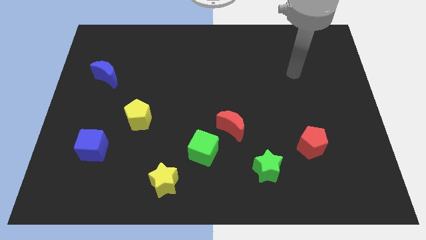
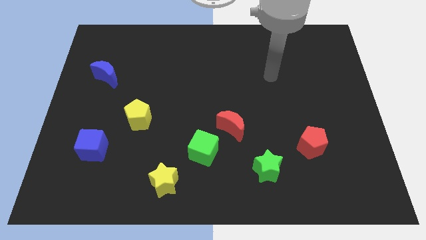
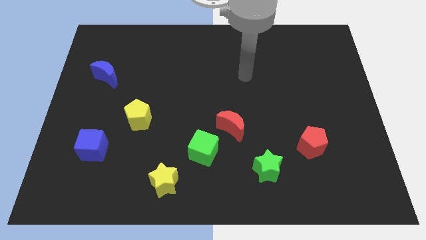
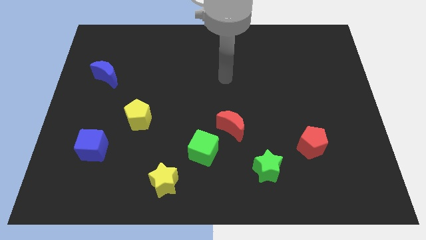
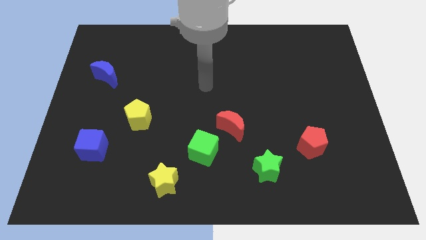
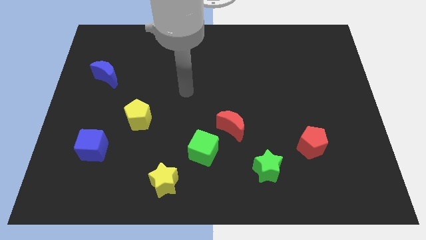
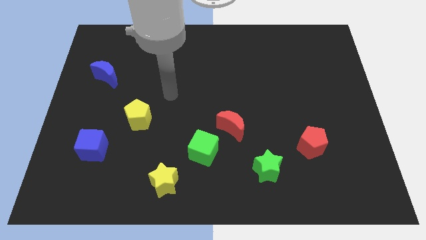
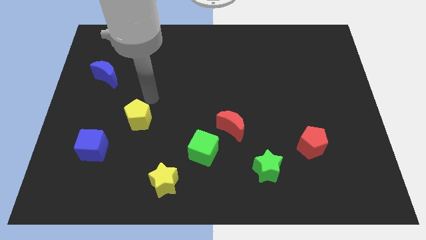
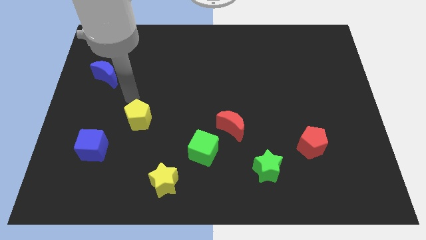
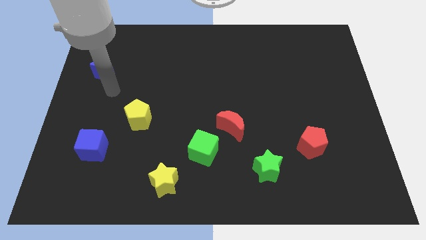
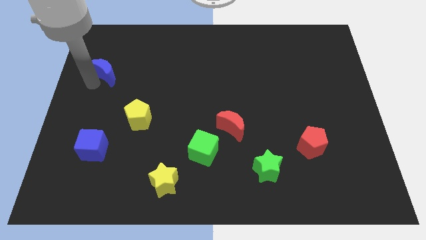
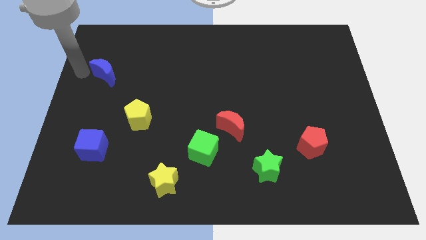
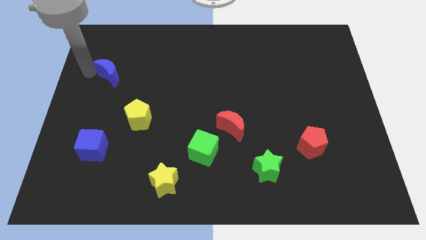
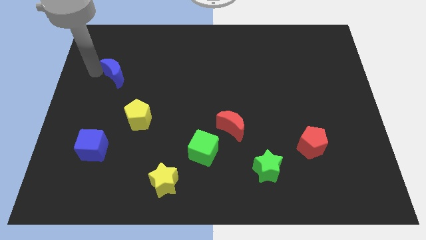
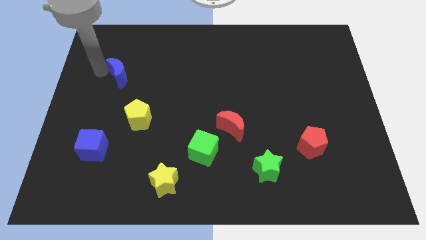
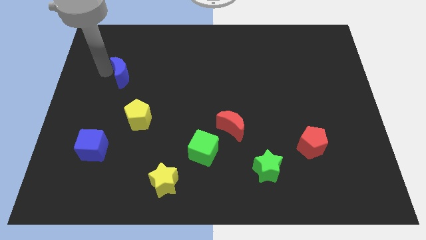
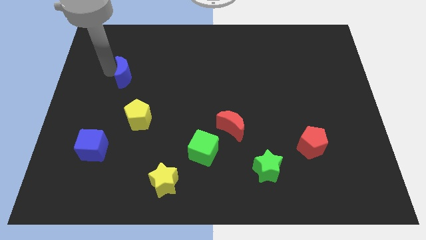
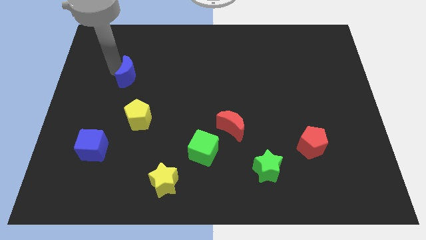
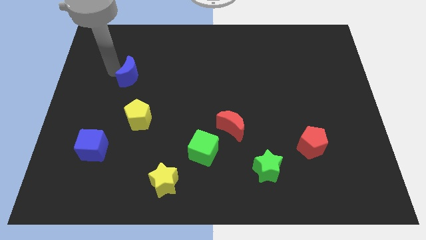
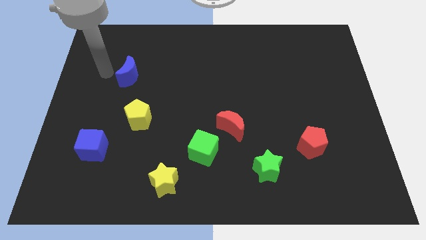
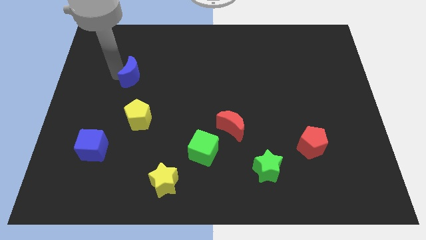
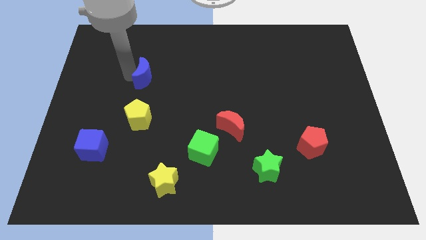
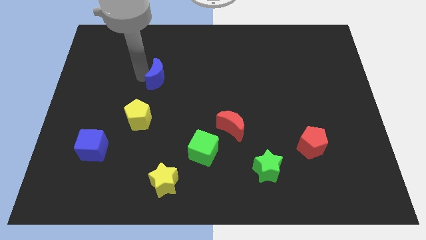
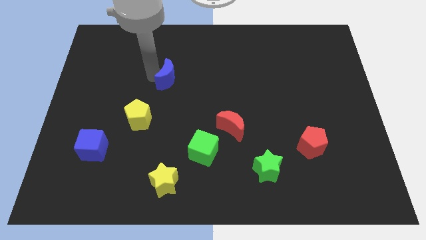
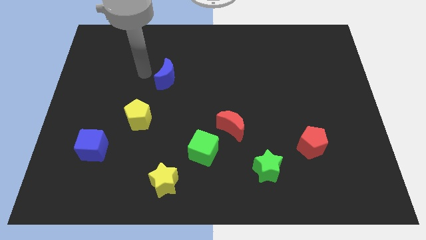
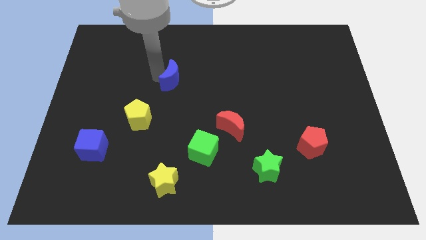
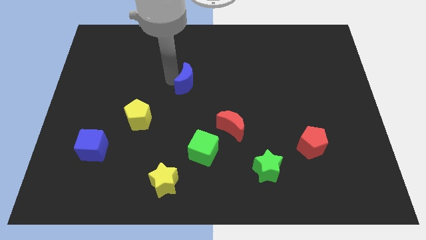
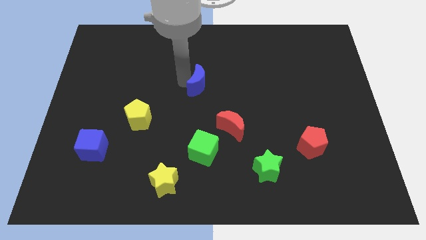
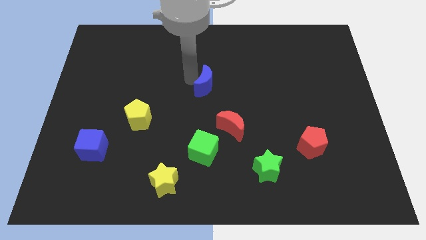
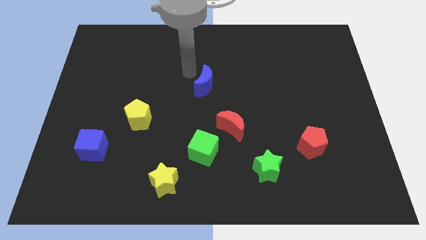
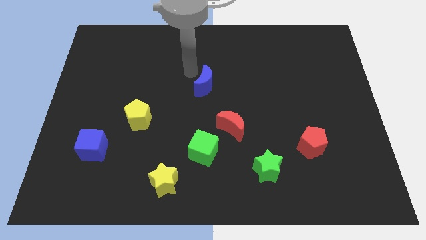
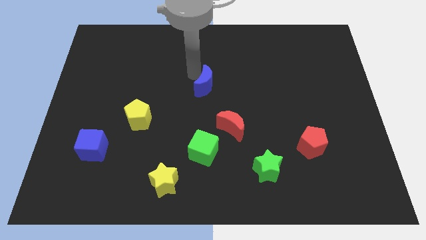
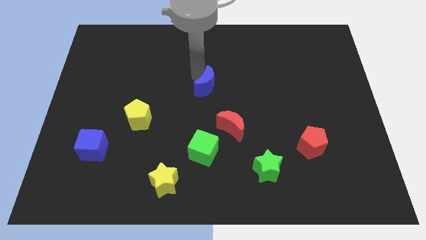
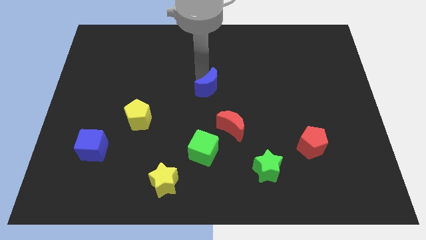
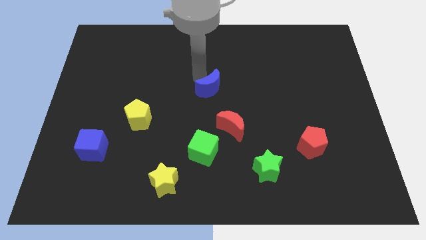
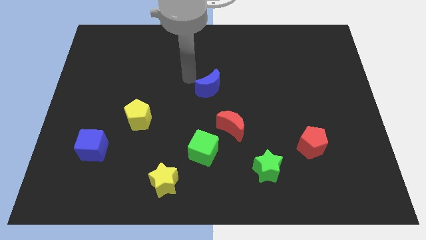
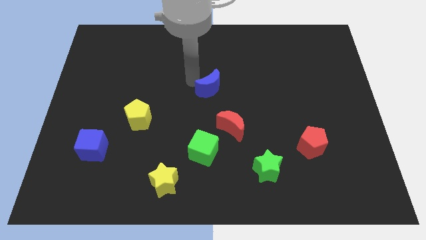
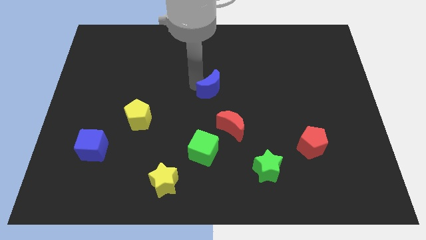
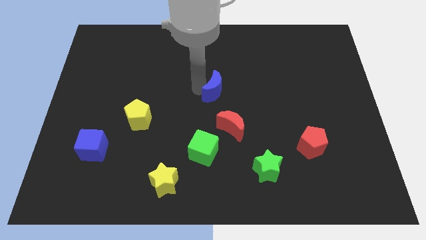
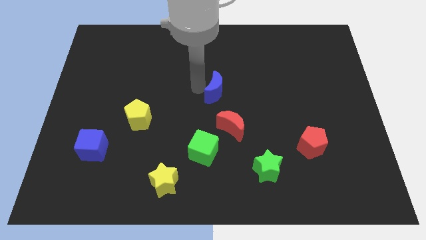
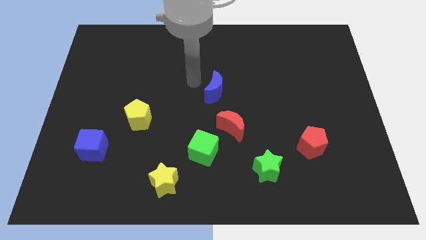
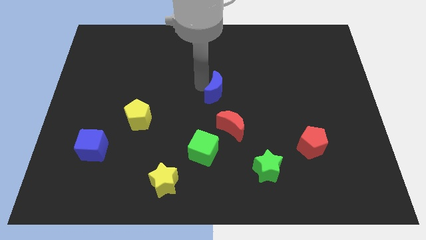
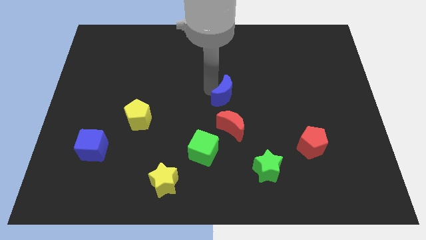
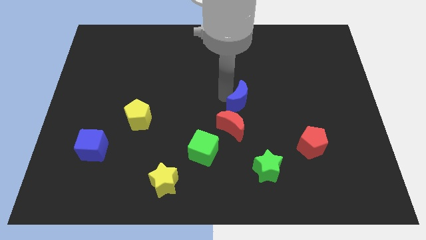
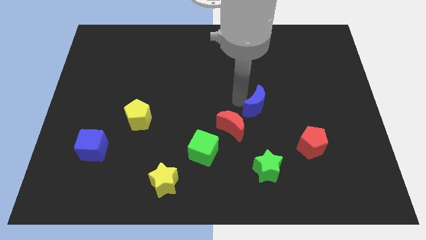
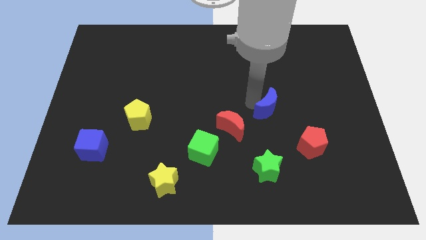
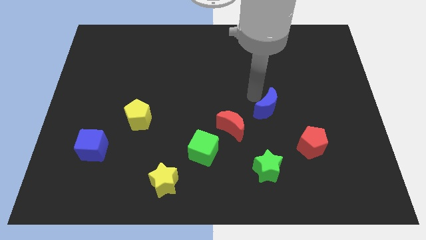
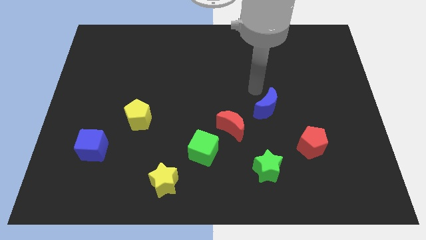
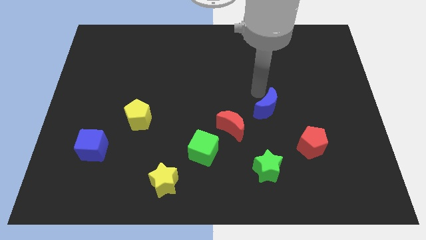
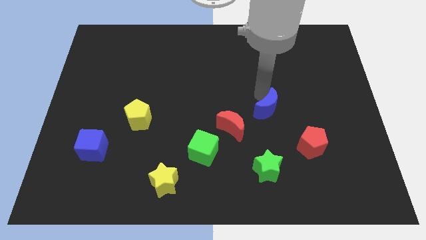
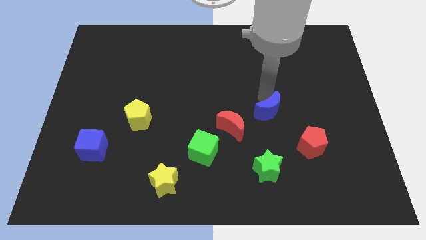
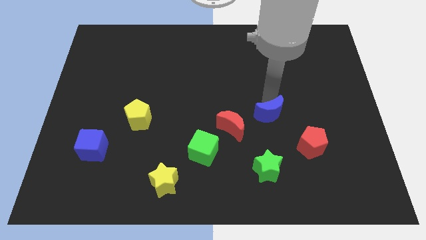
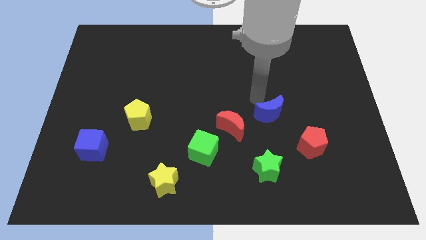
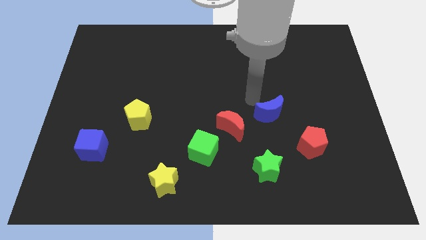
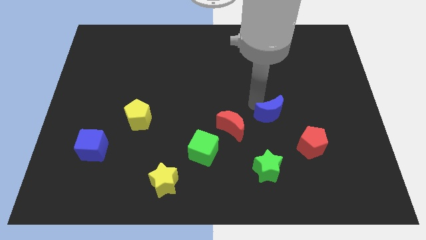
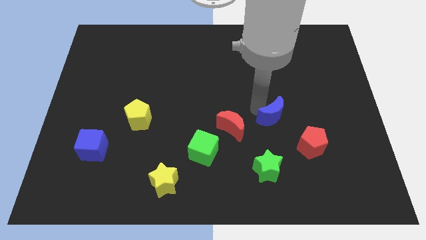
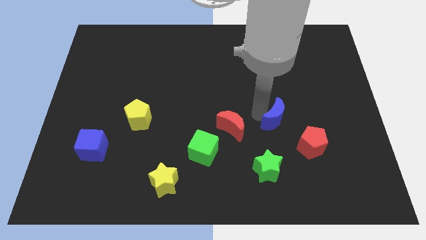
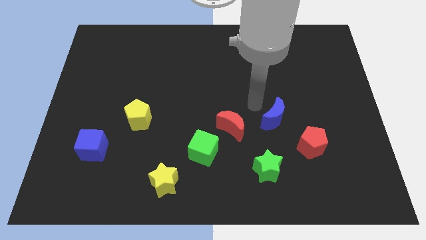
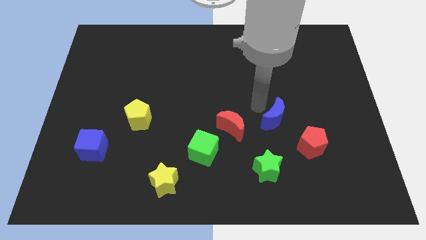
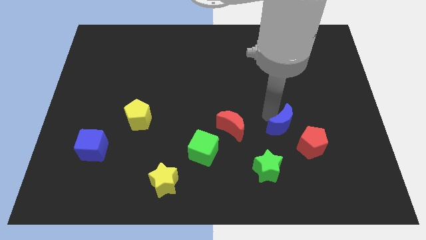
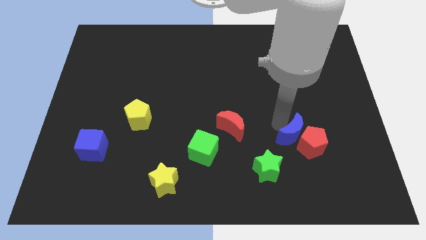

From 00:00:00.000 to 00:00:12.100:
push the blue moon close to the red pentagon
